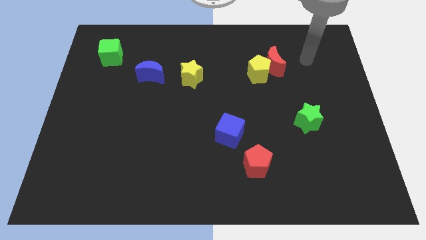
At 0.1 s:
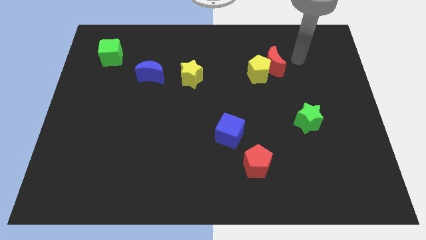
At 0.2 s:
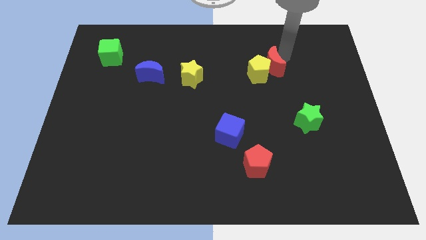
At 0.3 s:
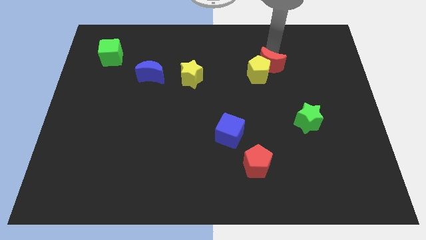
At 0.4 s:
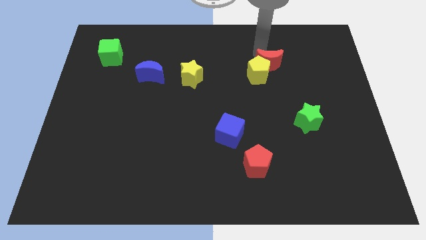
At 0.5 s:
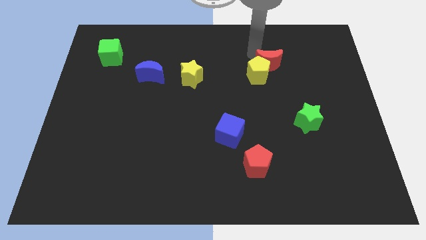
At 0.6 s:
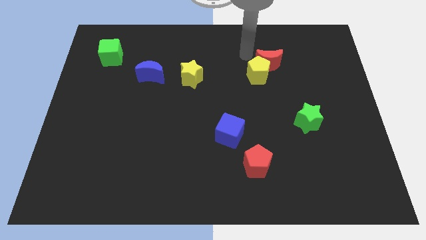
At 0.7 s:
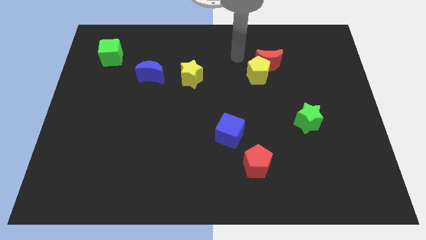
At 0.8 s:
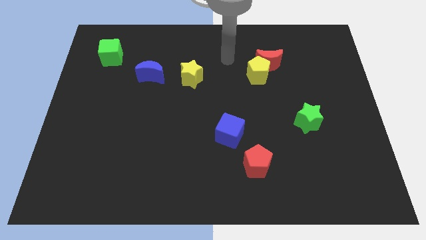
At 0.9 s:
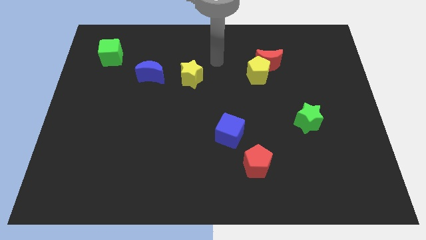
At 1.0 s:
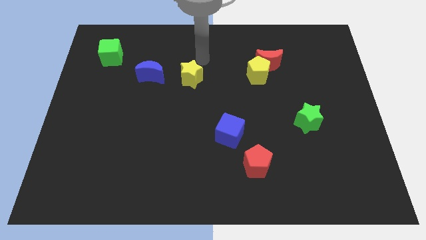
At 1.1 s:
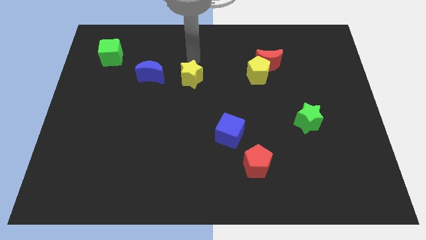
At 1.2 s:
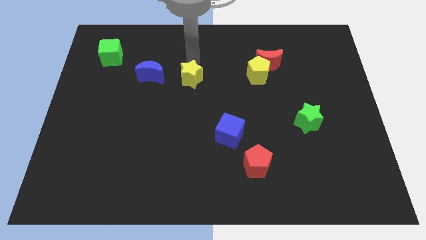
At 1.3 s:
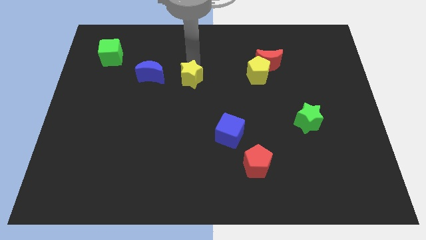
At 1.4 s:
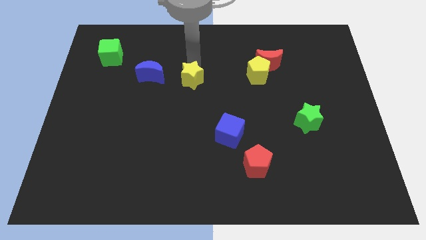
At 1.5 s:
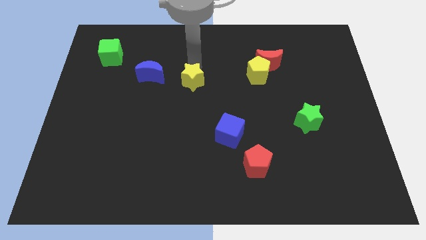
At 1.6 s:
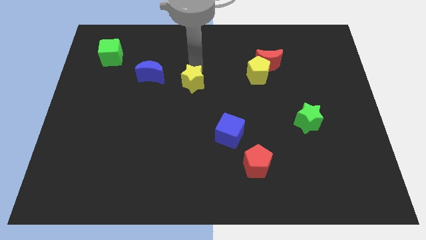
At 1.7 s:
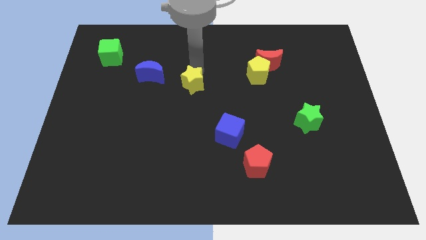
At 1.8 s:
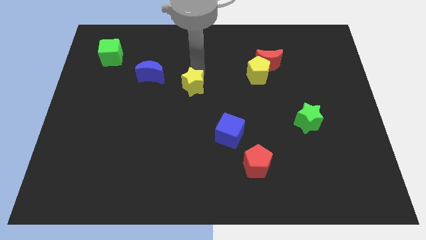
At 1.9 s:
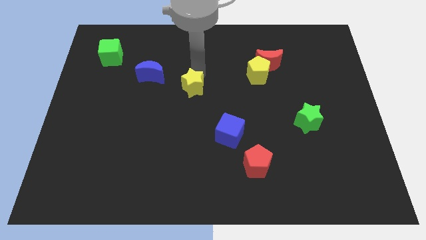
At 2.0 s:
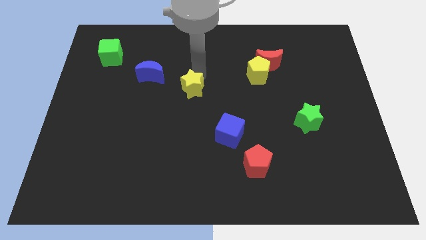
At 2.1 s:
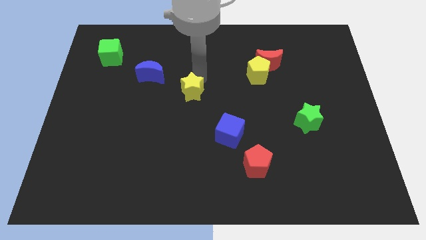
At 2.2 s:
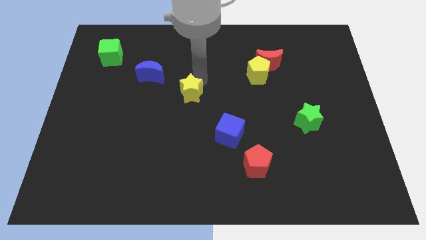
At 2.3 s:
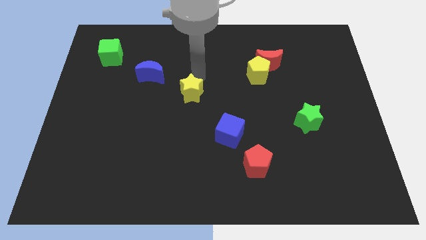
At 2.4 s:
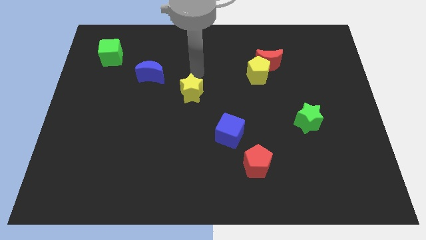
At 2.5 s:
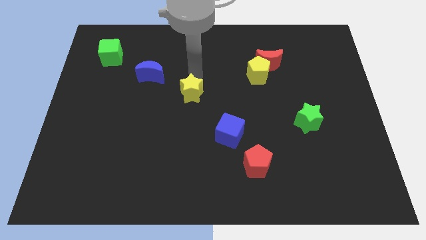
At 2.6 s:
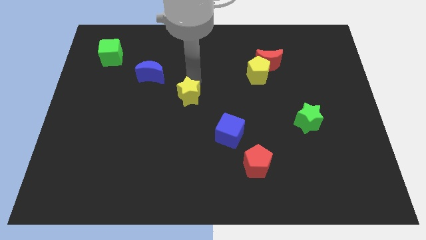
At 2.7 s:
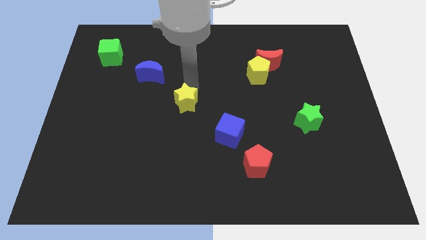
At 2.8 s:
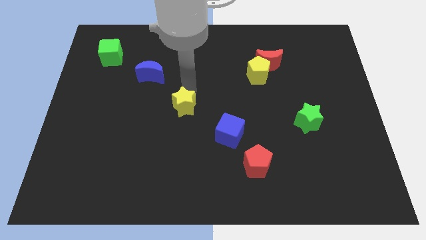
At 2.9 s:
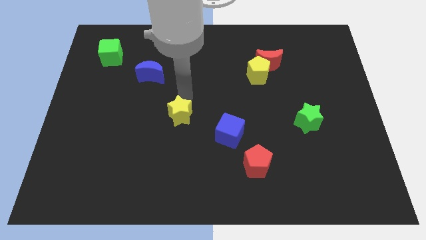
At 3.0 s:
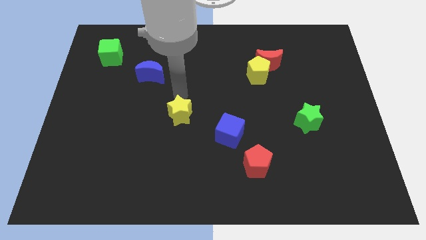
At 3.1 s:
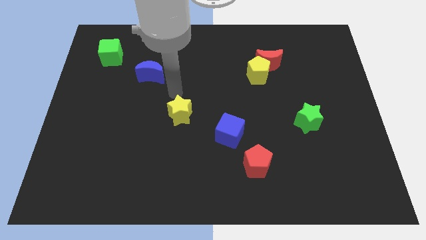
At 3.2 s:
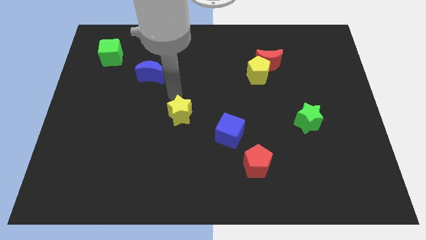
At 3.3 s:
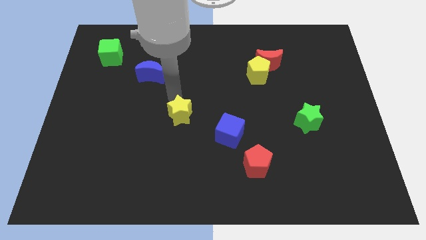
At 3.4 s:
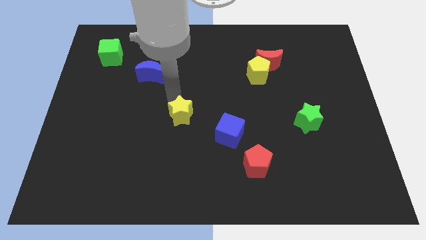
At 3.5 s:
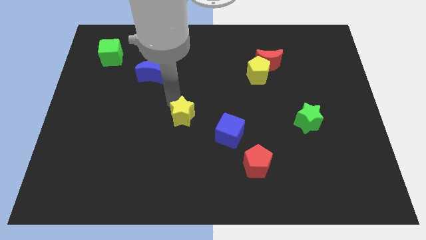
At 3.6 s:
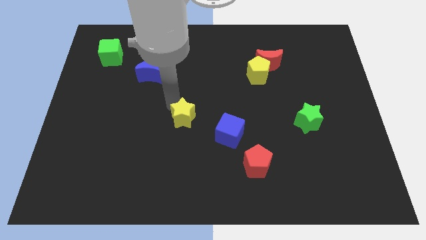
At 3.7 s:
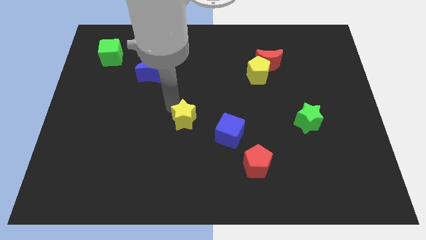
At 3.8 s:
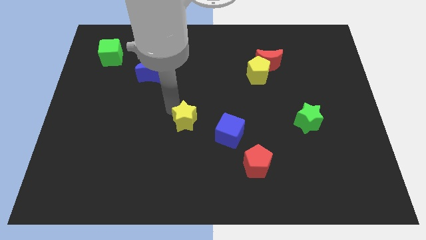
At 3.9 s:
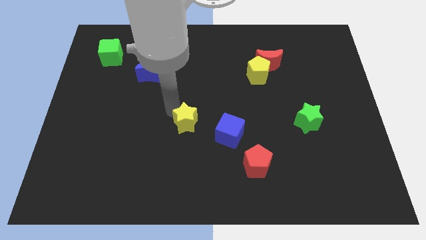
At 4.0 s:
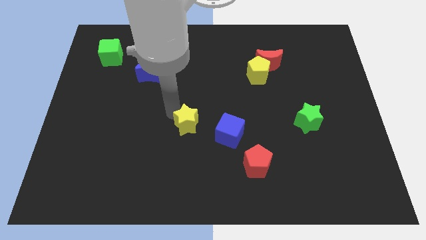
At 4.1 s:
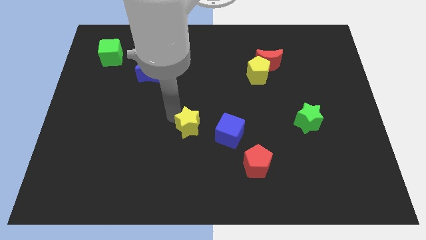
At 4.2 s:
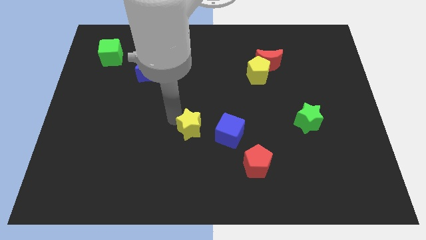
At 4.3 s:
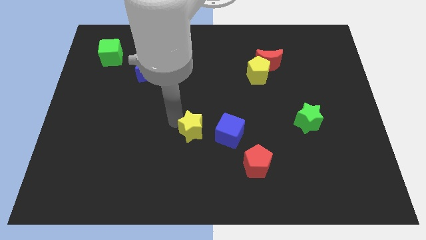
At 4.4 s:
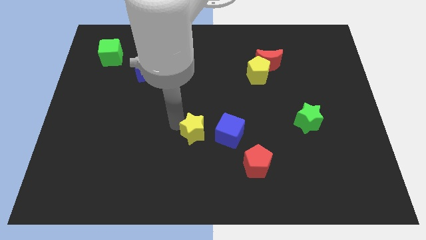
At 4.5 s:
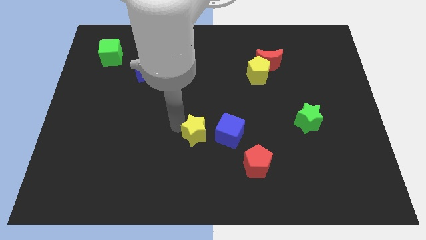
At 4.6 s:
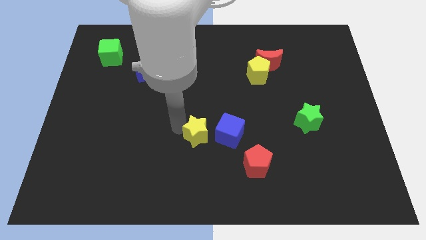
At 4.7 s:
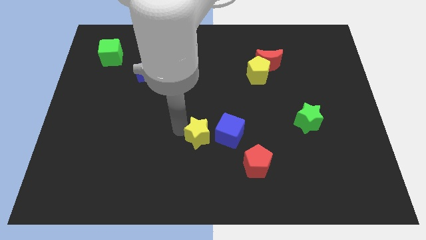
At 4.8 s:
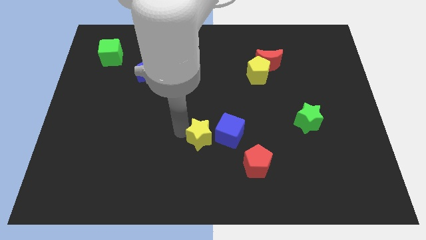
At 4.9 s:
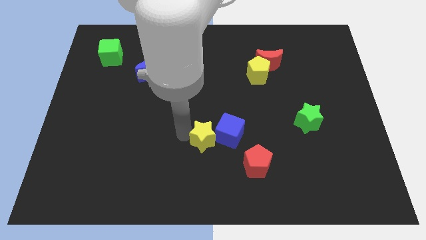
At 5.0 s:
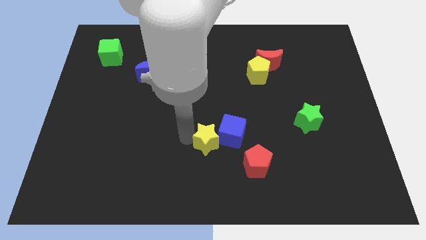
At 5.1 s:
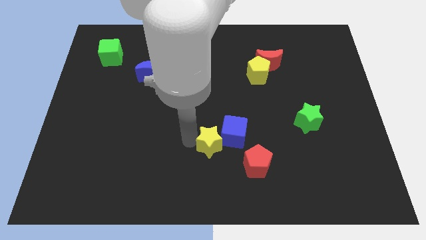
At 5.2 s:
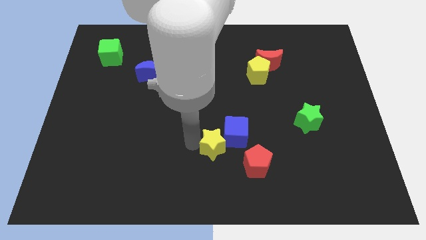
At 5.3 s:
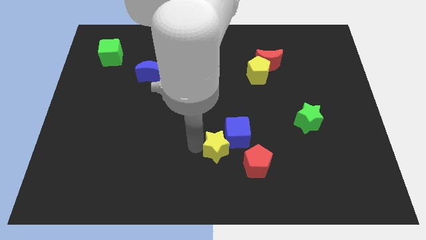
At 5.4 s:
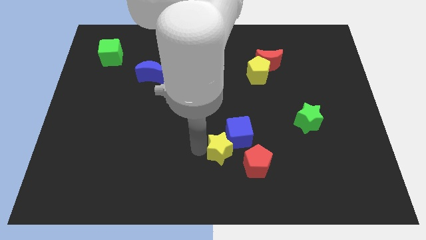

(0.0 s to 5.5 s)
slide the yellow star below the blue cube

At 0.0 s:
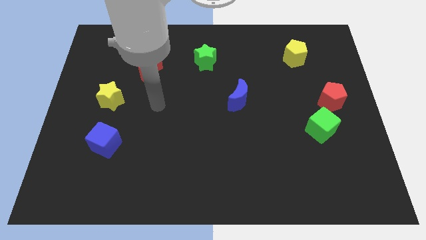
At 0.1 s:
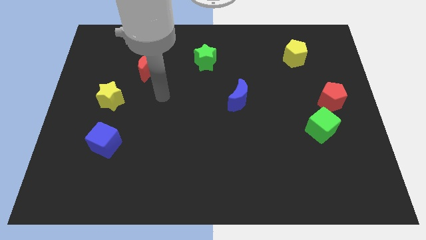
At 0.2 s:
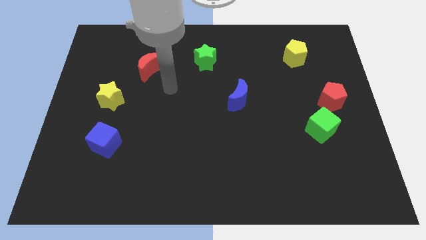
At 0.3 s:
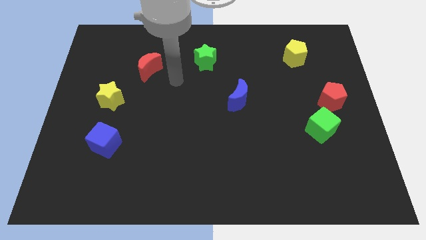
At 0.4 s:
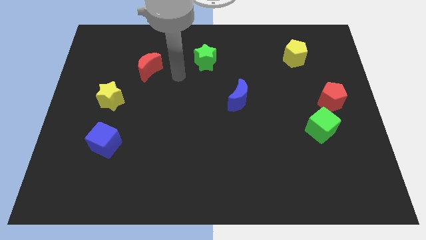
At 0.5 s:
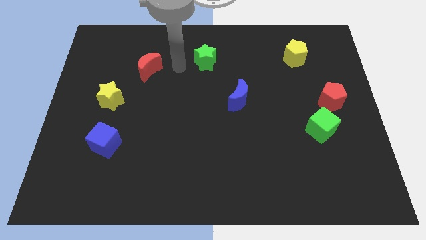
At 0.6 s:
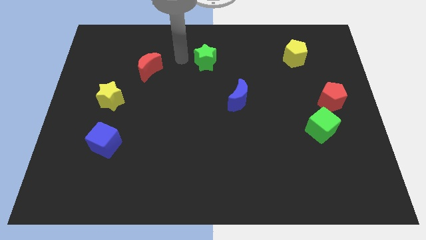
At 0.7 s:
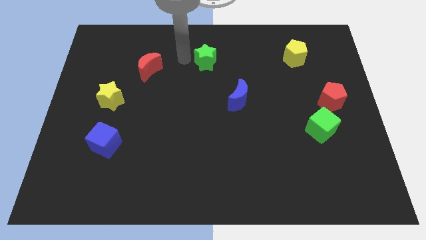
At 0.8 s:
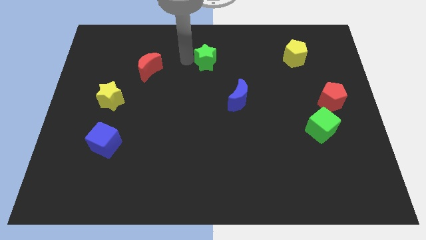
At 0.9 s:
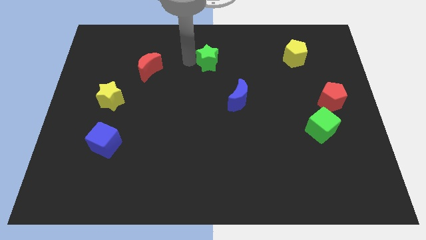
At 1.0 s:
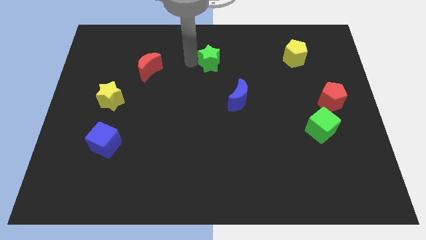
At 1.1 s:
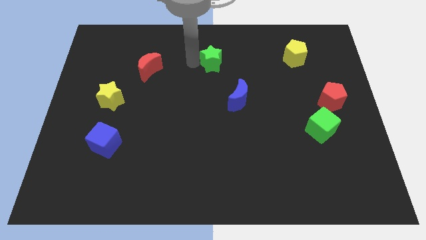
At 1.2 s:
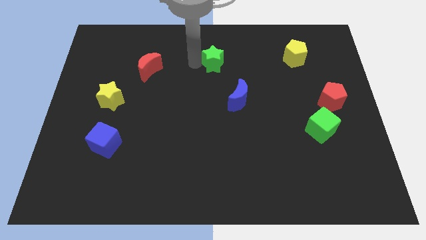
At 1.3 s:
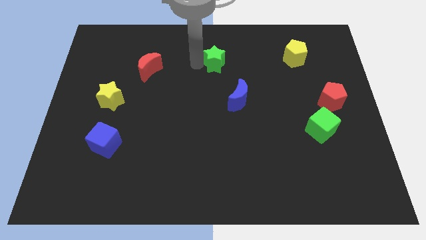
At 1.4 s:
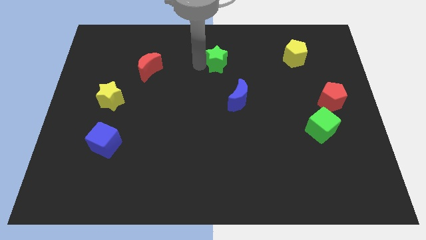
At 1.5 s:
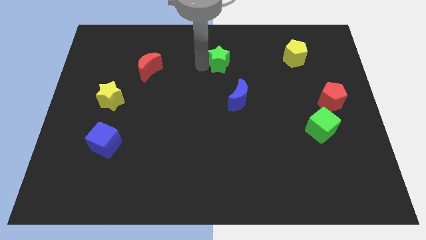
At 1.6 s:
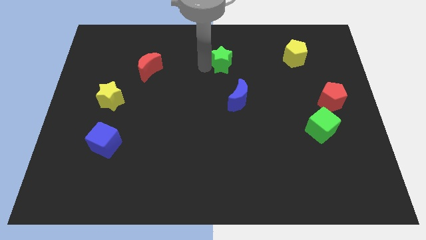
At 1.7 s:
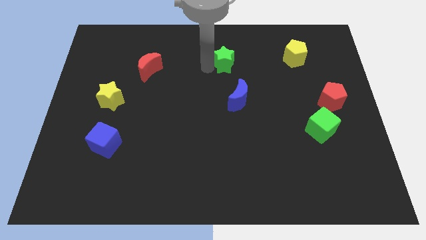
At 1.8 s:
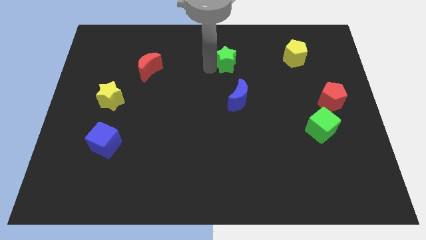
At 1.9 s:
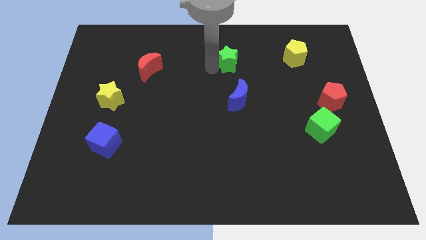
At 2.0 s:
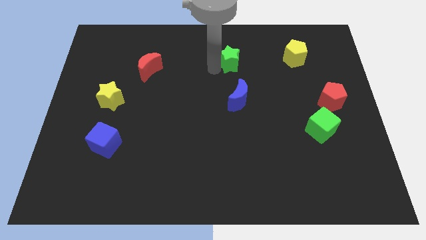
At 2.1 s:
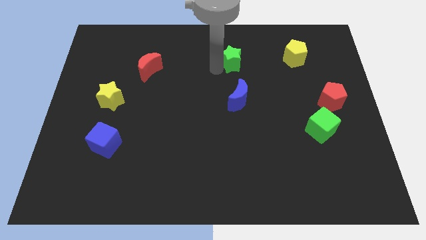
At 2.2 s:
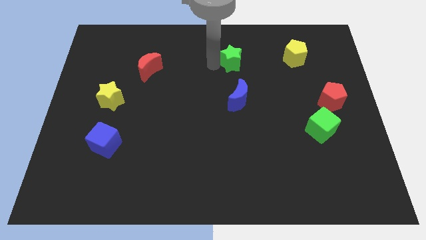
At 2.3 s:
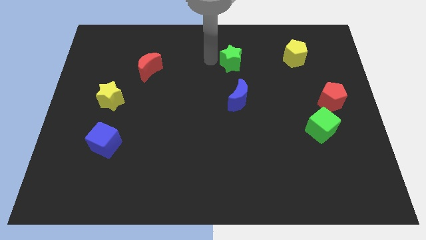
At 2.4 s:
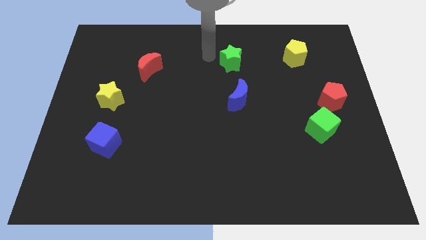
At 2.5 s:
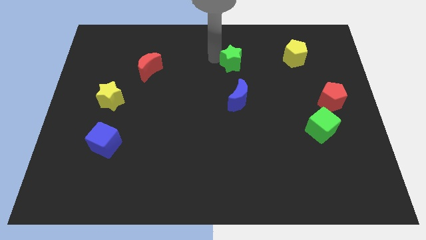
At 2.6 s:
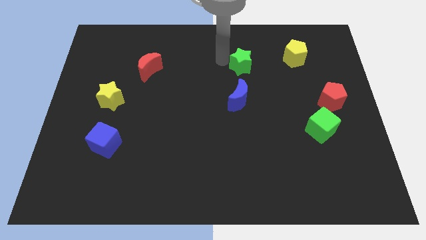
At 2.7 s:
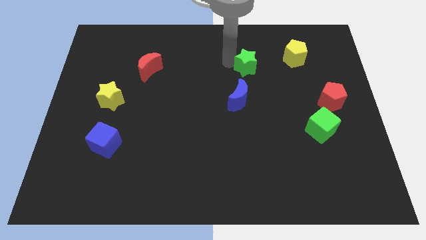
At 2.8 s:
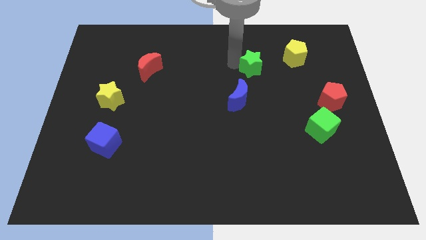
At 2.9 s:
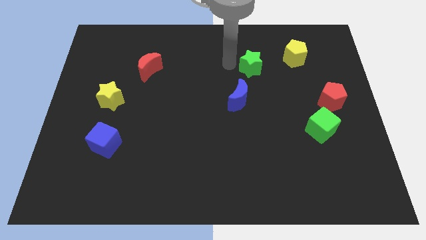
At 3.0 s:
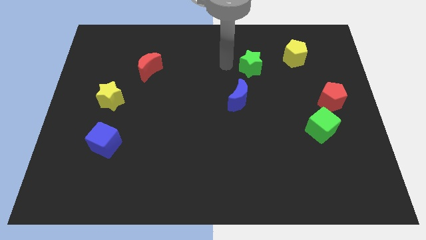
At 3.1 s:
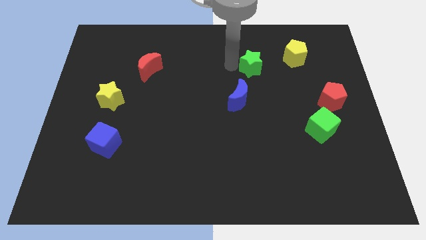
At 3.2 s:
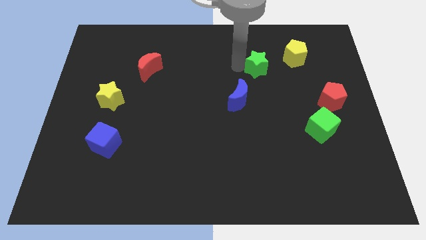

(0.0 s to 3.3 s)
slide the green star to the bottom left of the yellow pentagon
